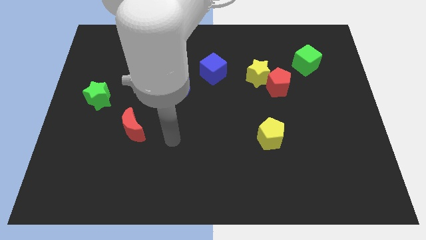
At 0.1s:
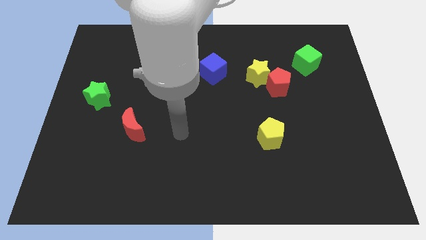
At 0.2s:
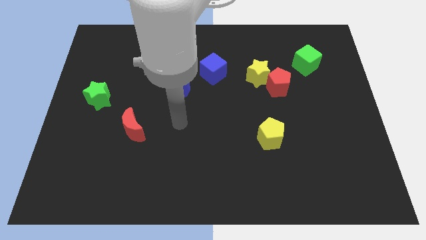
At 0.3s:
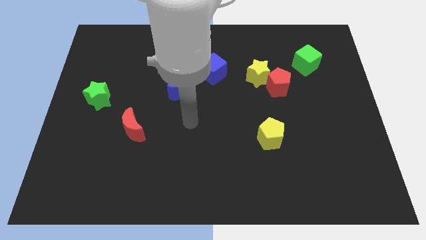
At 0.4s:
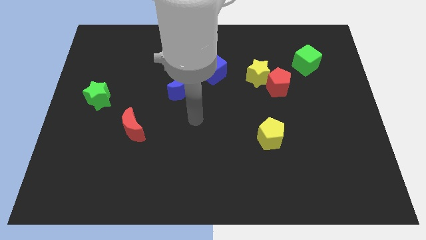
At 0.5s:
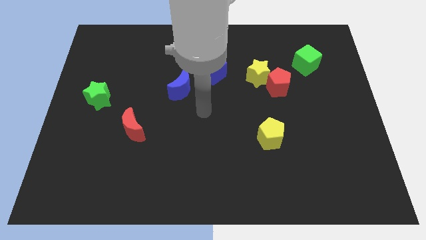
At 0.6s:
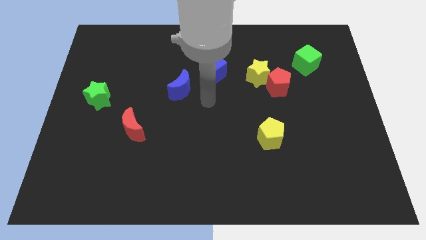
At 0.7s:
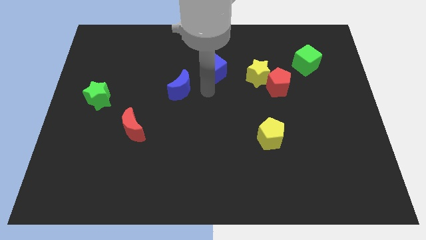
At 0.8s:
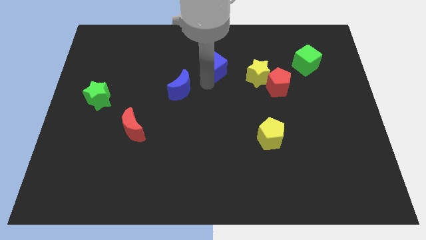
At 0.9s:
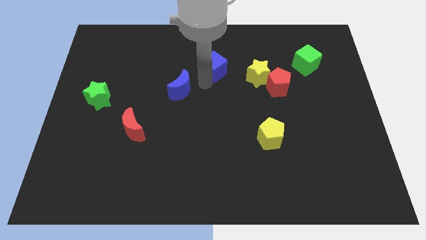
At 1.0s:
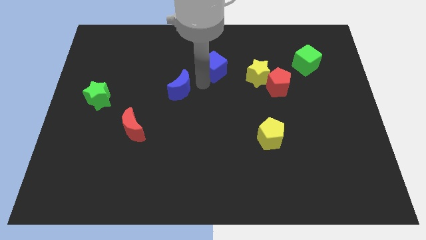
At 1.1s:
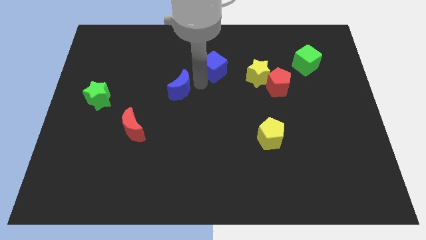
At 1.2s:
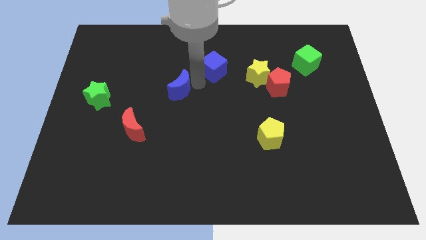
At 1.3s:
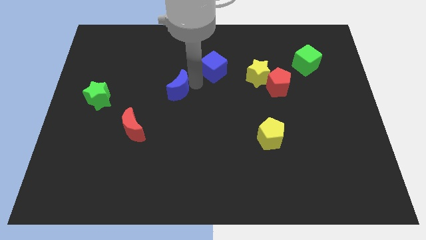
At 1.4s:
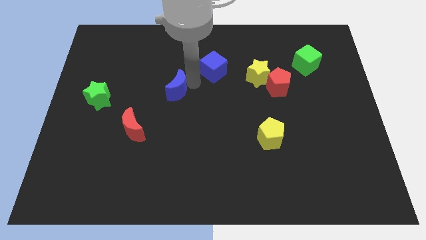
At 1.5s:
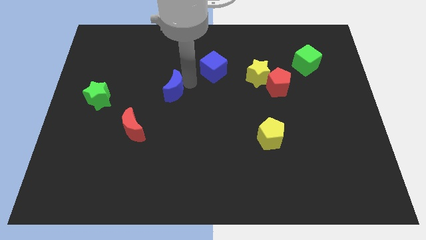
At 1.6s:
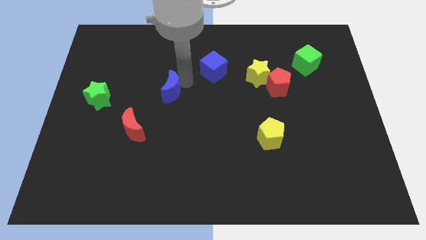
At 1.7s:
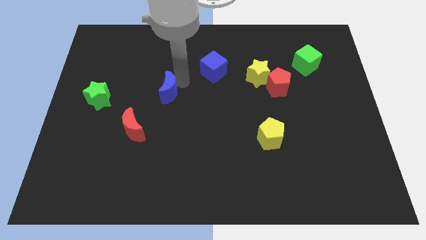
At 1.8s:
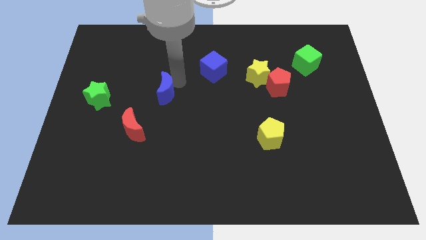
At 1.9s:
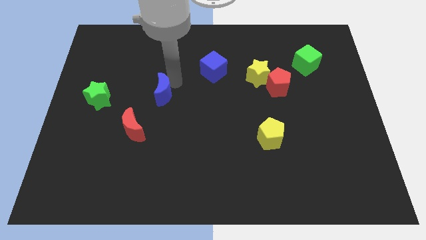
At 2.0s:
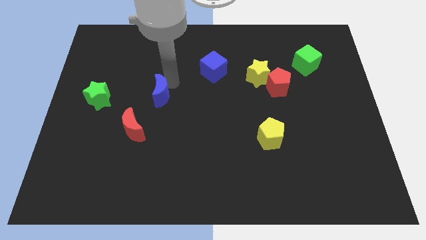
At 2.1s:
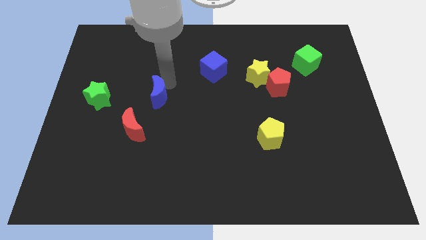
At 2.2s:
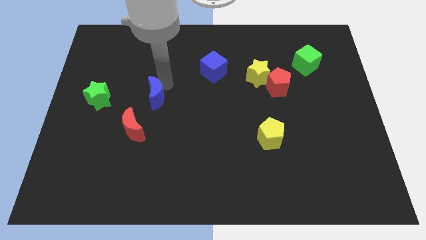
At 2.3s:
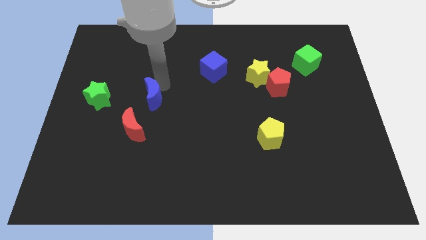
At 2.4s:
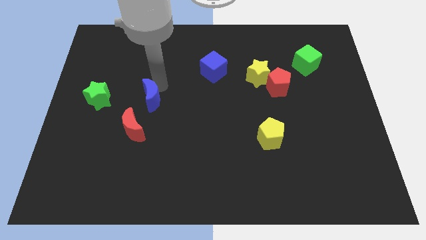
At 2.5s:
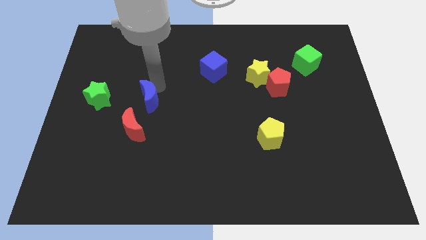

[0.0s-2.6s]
push the blue moon somewhat down and then to the left

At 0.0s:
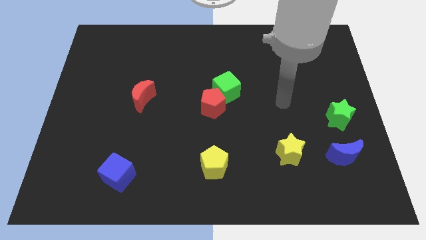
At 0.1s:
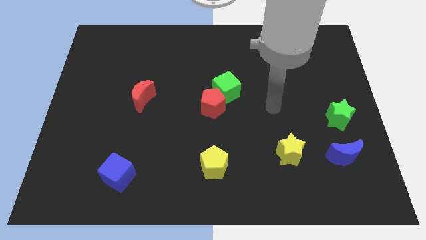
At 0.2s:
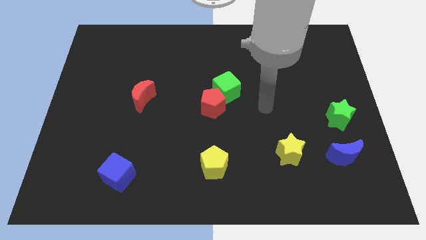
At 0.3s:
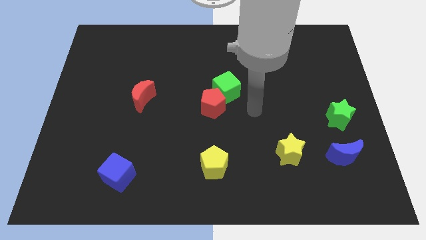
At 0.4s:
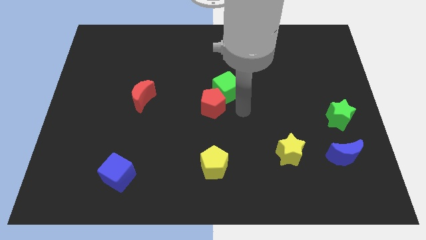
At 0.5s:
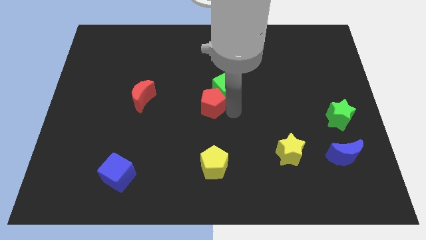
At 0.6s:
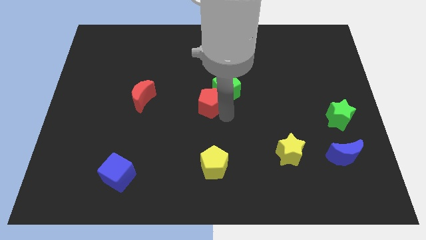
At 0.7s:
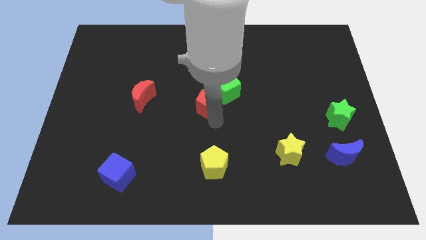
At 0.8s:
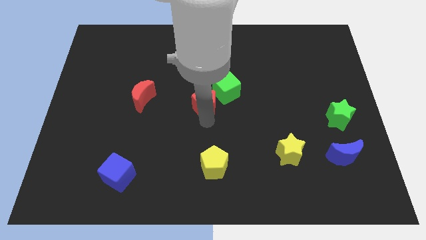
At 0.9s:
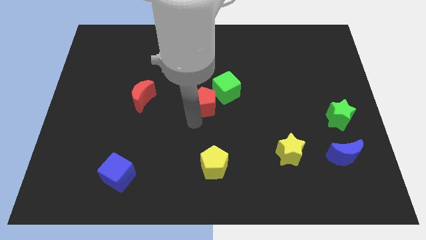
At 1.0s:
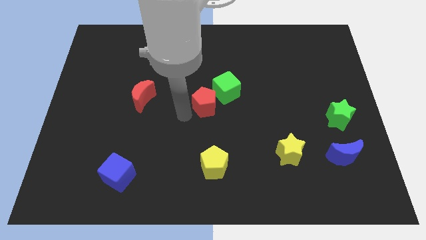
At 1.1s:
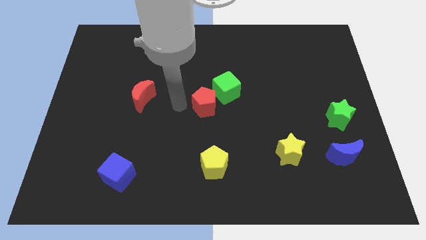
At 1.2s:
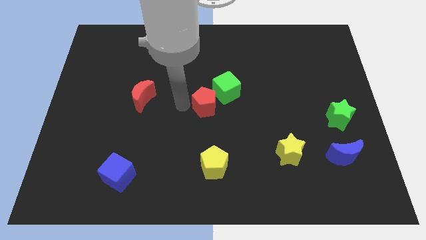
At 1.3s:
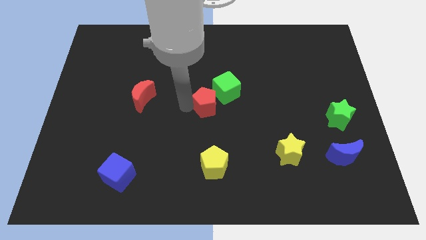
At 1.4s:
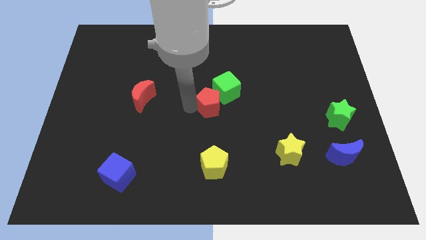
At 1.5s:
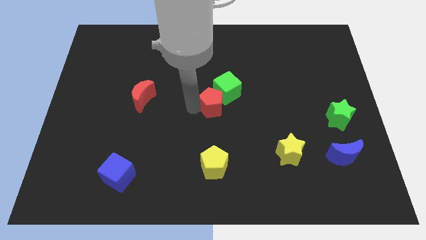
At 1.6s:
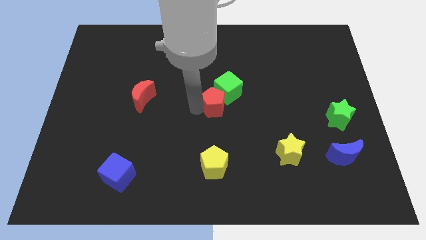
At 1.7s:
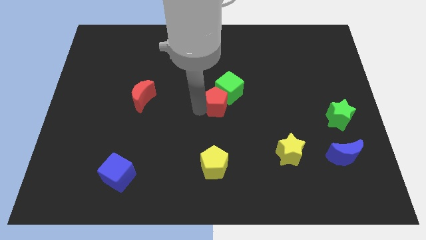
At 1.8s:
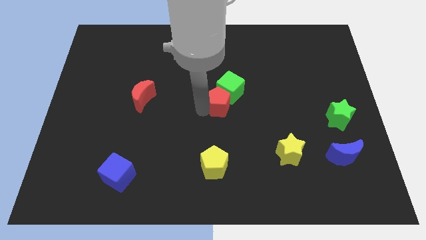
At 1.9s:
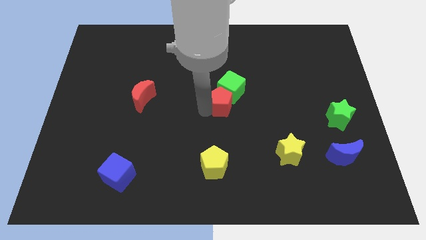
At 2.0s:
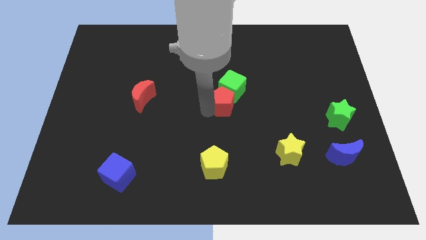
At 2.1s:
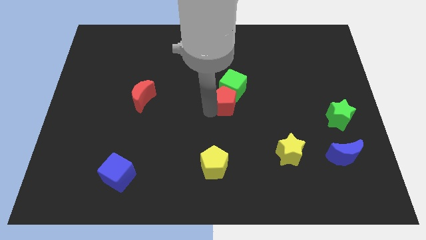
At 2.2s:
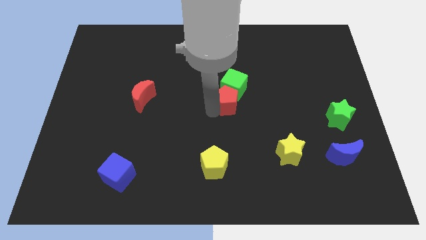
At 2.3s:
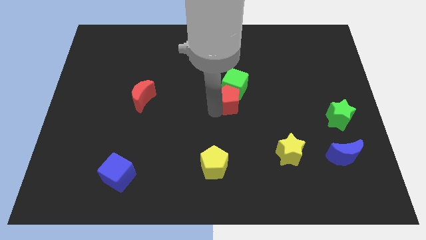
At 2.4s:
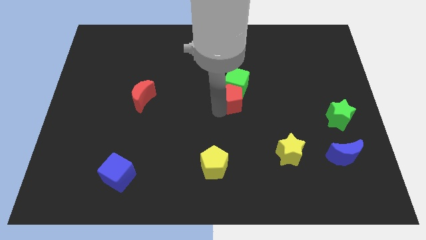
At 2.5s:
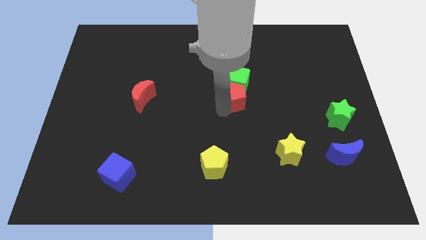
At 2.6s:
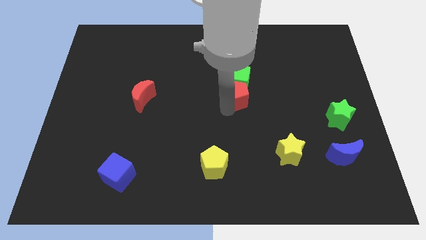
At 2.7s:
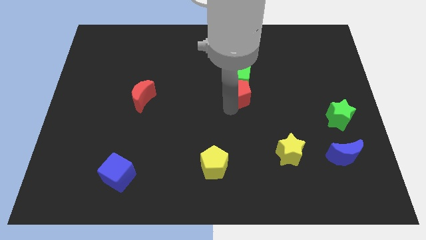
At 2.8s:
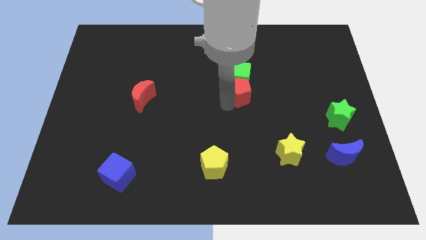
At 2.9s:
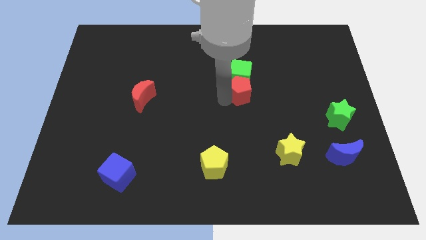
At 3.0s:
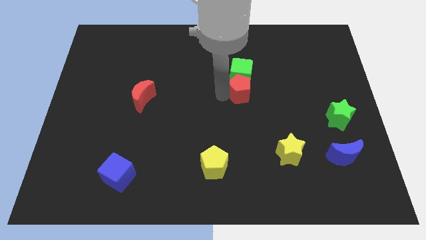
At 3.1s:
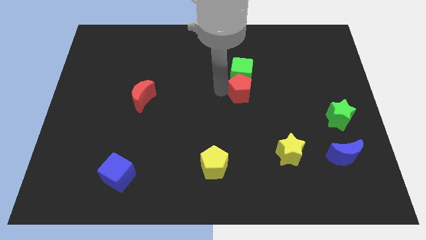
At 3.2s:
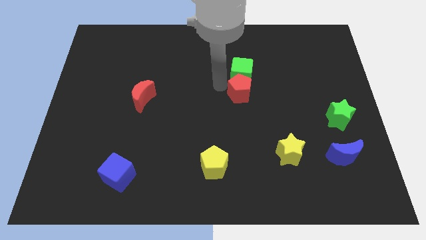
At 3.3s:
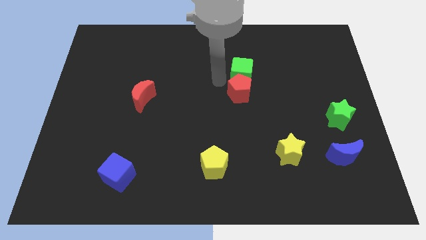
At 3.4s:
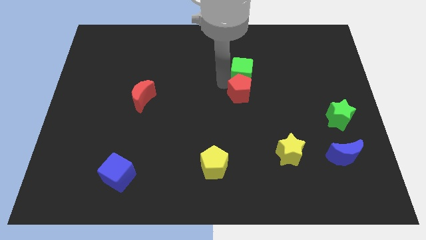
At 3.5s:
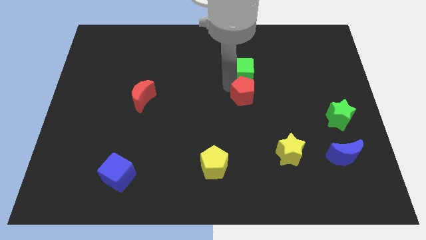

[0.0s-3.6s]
slightly slide the red pentagon right

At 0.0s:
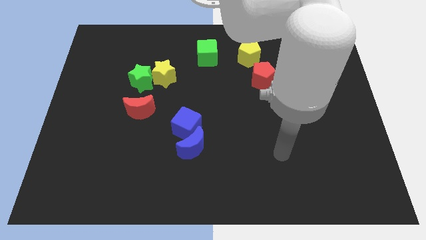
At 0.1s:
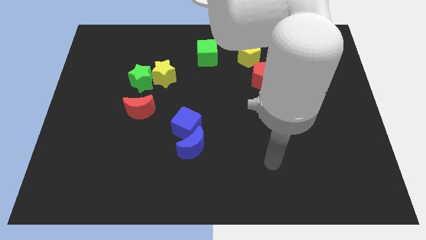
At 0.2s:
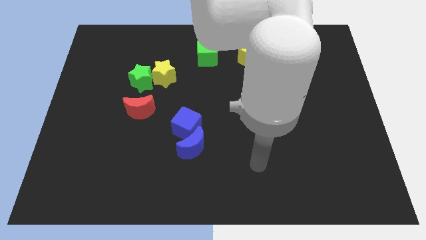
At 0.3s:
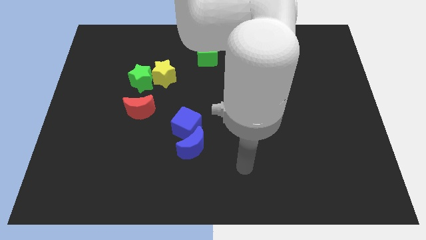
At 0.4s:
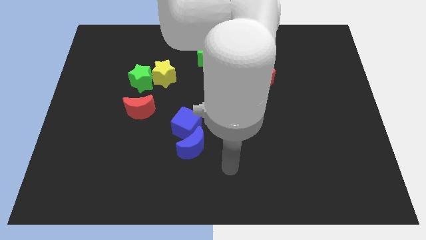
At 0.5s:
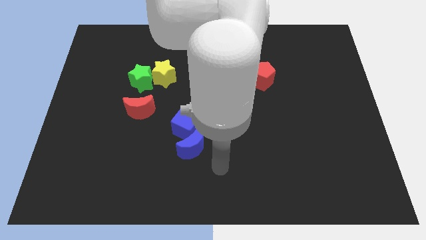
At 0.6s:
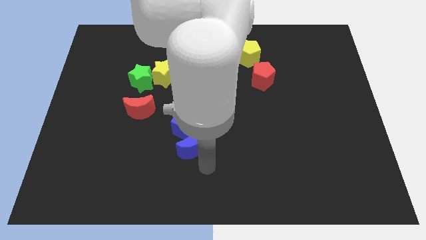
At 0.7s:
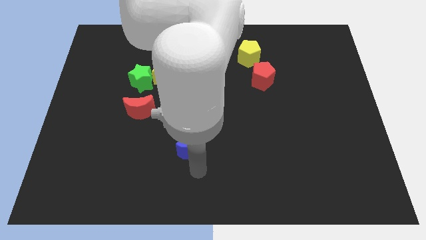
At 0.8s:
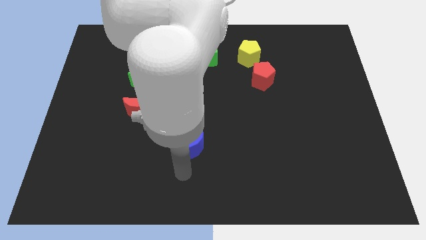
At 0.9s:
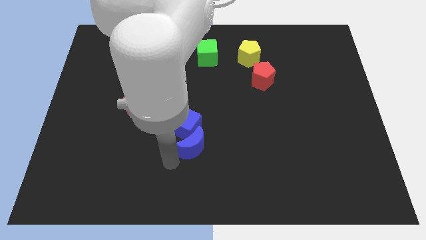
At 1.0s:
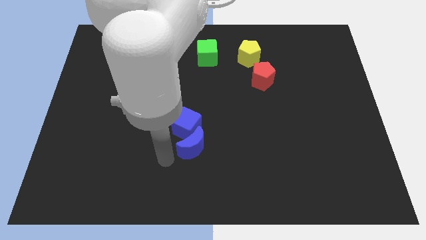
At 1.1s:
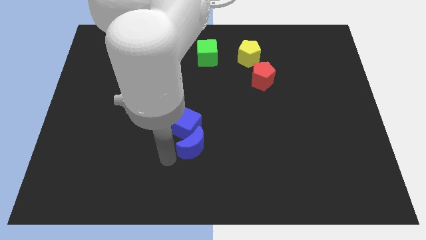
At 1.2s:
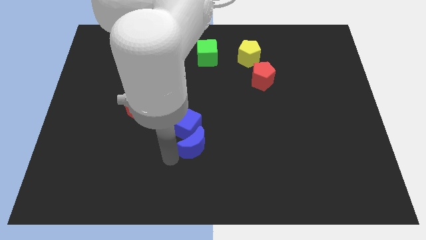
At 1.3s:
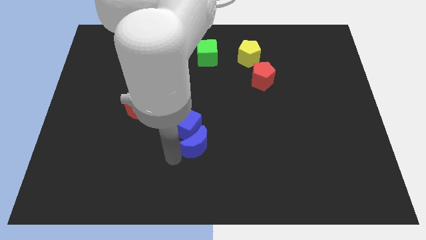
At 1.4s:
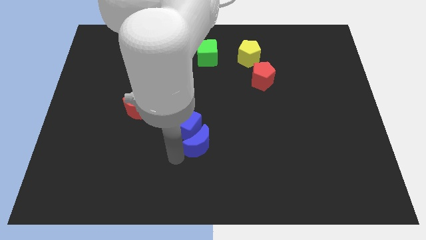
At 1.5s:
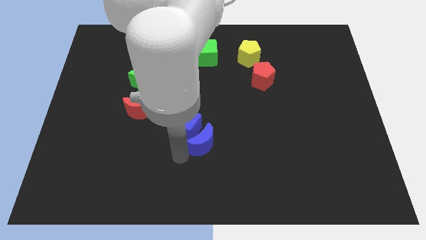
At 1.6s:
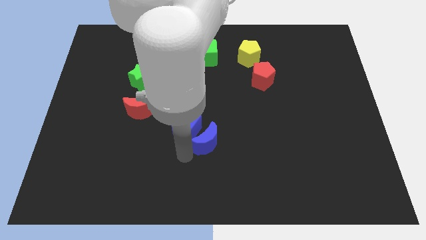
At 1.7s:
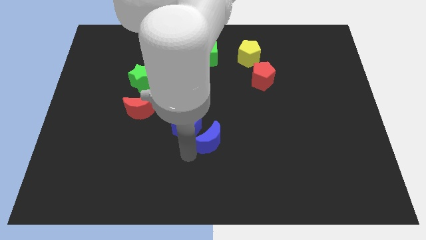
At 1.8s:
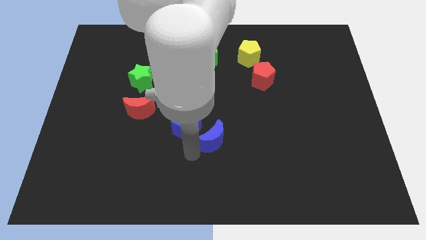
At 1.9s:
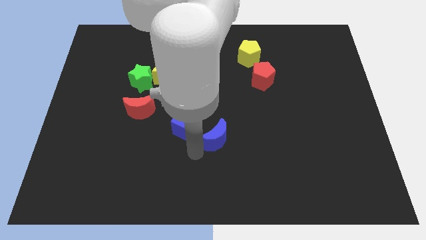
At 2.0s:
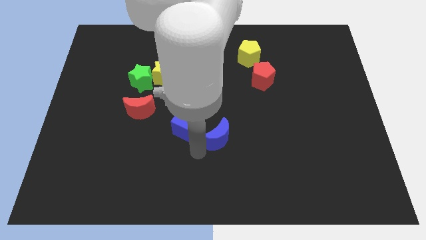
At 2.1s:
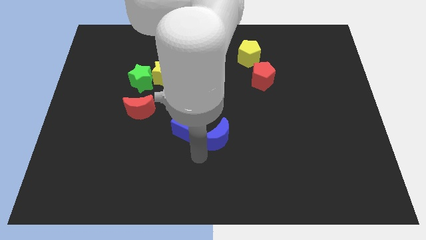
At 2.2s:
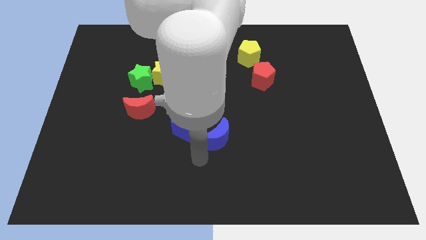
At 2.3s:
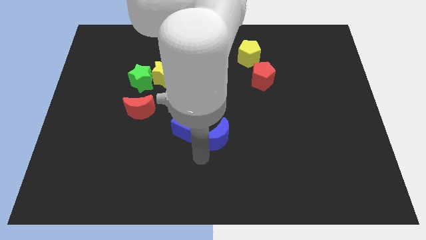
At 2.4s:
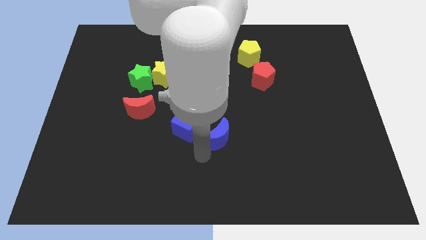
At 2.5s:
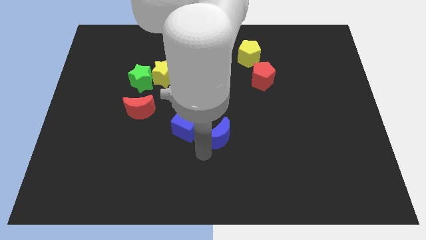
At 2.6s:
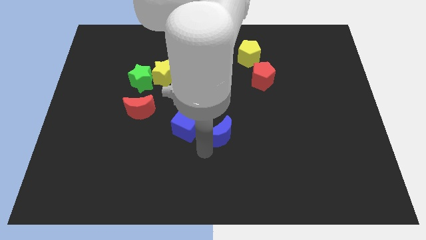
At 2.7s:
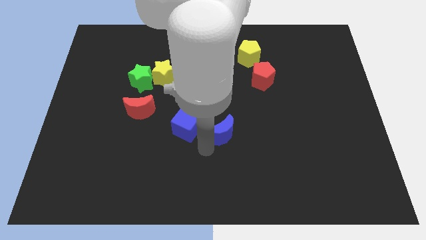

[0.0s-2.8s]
slide the blue moon upwards and right somewhat
